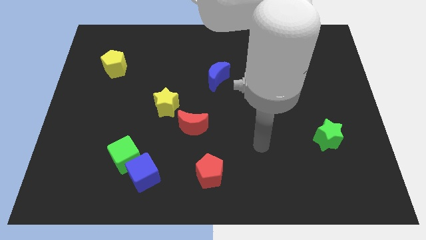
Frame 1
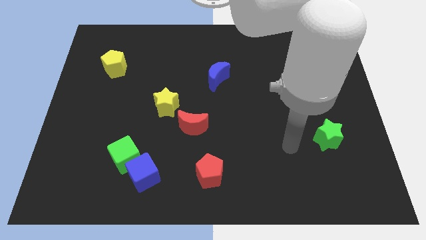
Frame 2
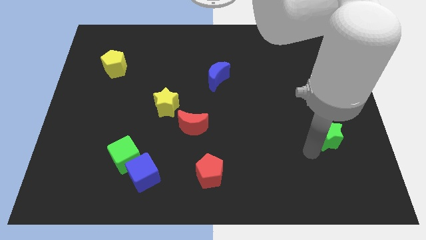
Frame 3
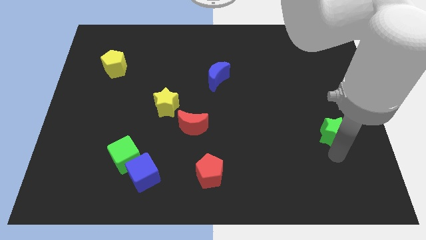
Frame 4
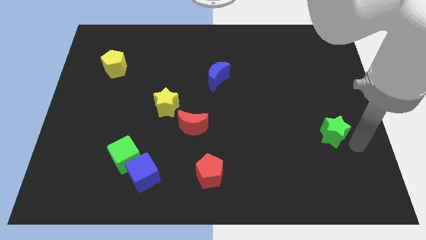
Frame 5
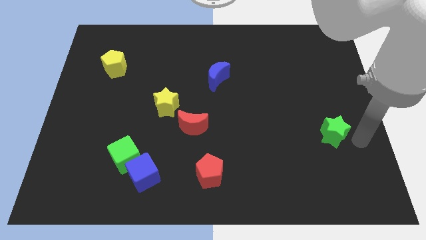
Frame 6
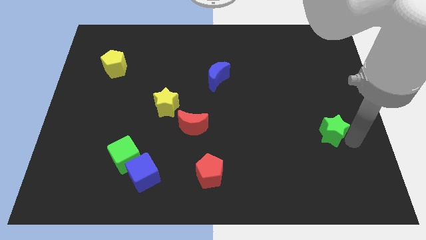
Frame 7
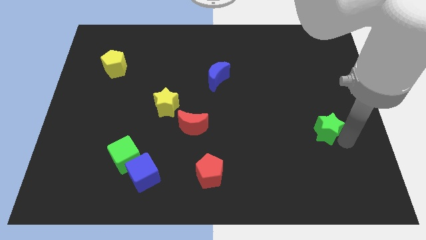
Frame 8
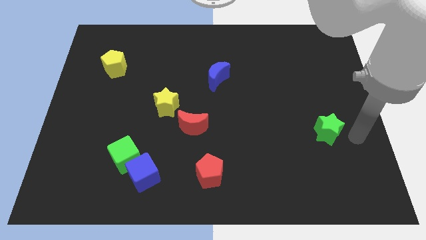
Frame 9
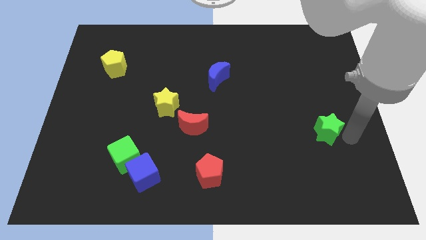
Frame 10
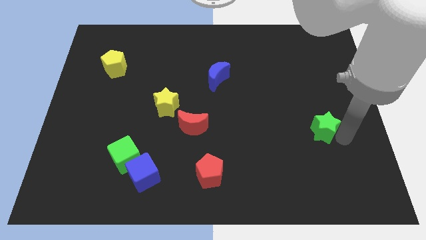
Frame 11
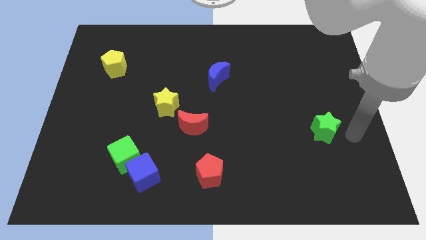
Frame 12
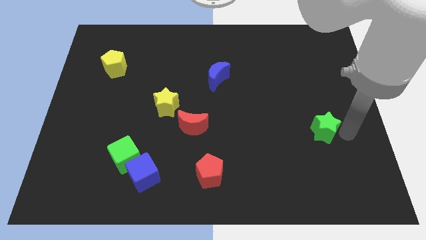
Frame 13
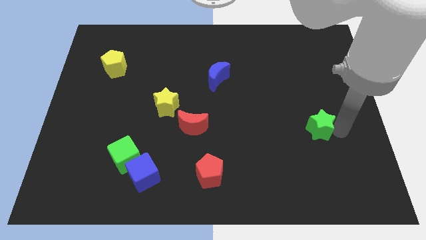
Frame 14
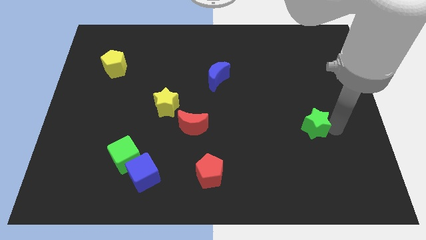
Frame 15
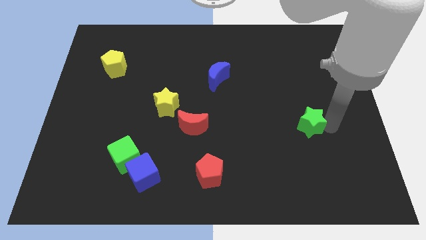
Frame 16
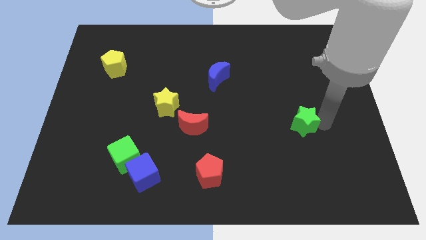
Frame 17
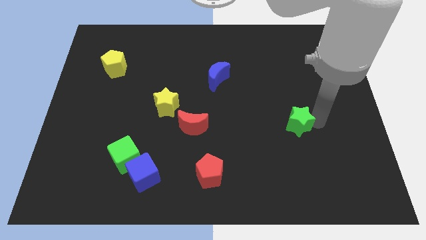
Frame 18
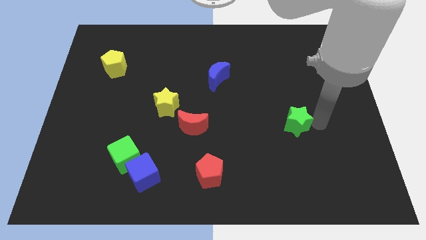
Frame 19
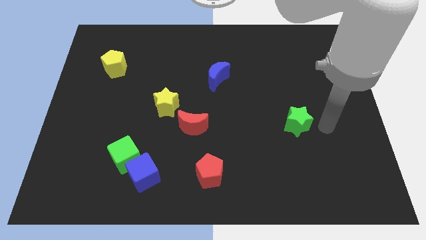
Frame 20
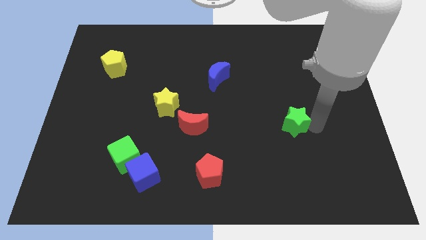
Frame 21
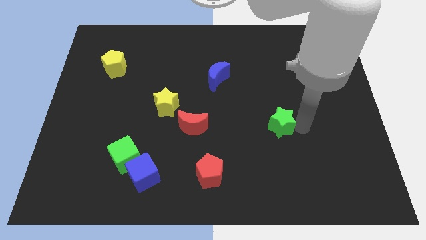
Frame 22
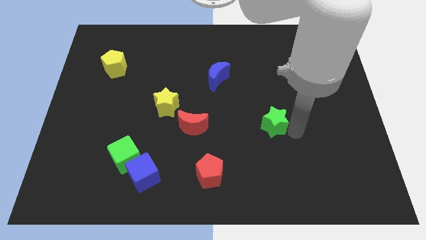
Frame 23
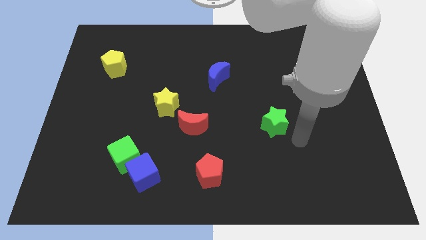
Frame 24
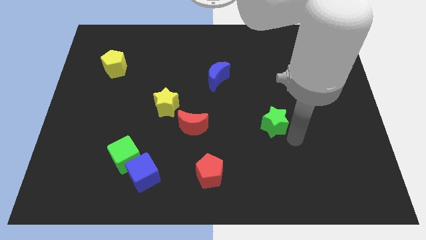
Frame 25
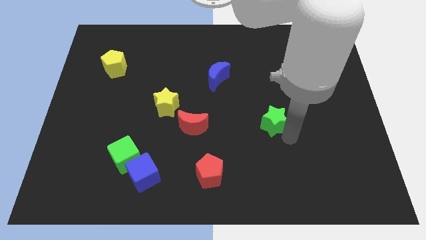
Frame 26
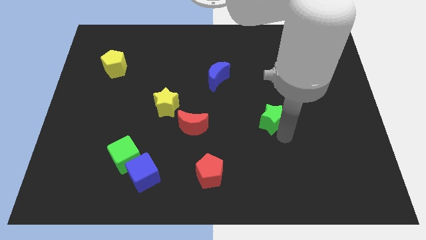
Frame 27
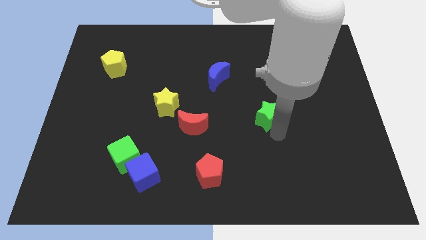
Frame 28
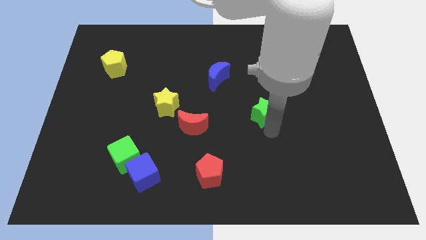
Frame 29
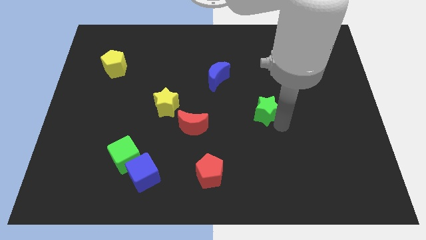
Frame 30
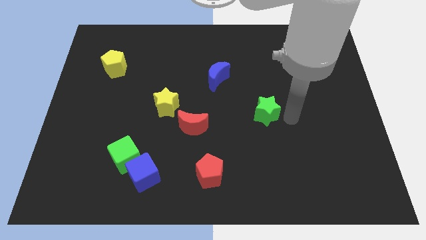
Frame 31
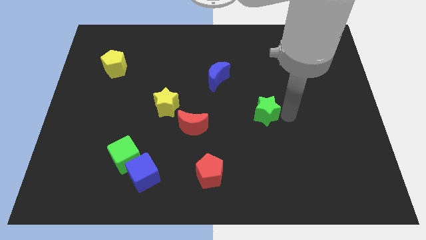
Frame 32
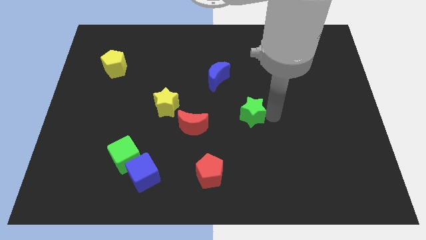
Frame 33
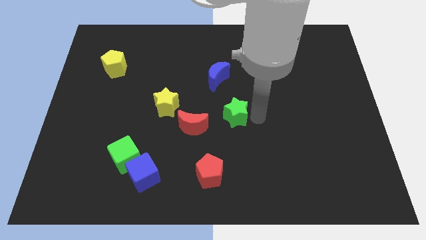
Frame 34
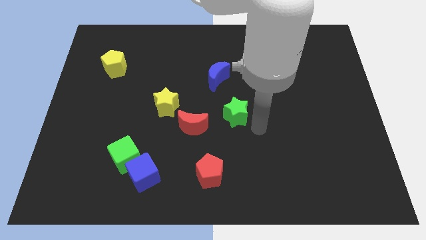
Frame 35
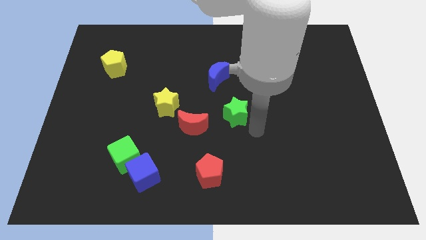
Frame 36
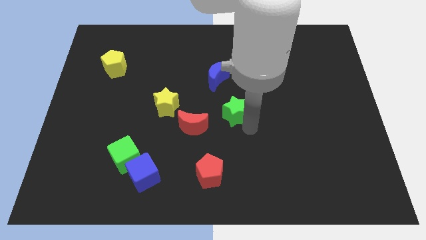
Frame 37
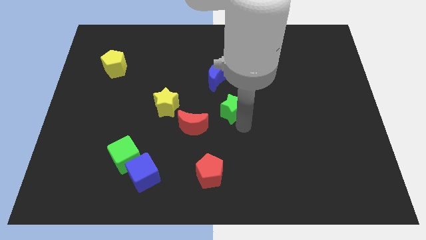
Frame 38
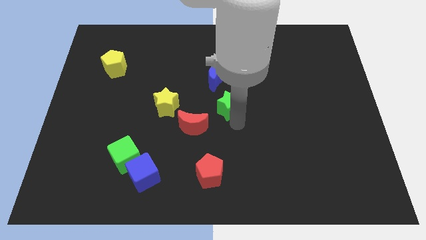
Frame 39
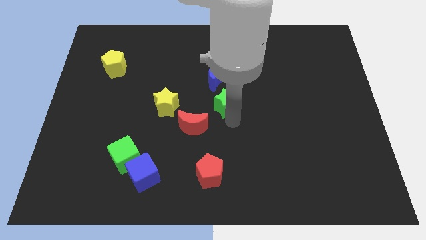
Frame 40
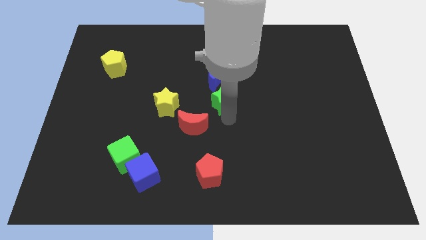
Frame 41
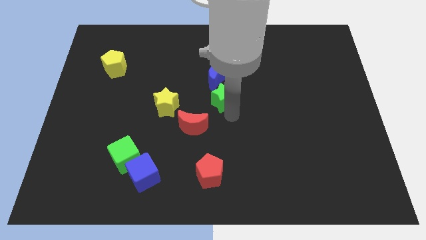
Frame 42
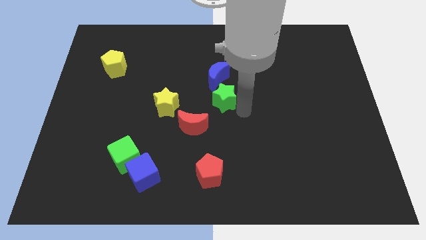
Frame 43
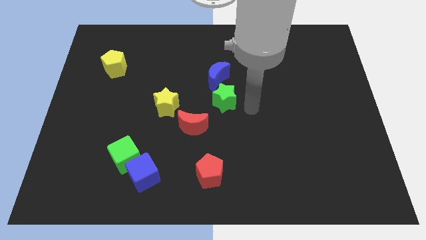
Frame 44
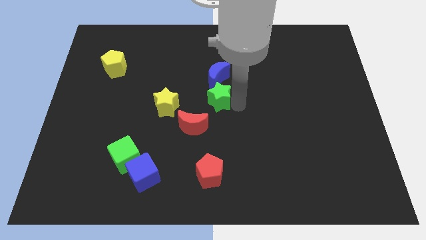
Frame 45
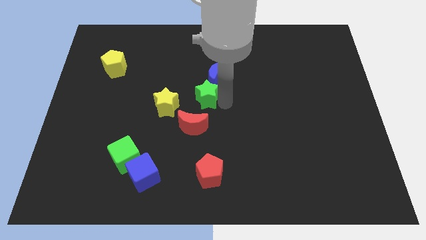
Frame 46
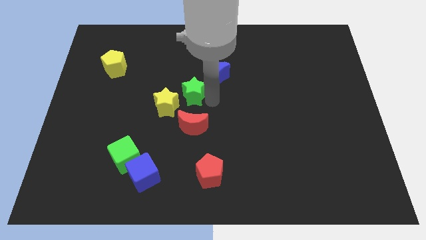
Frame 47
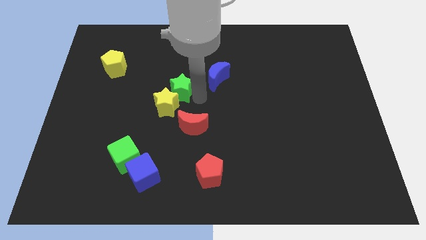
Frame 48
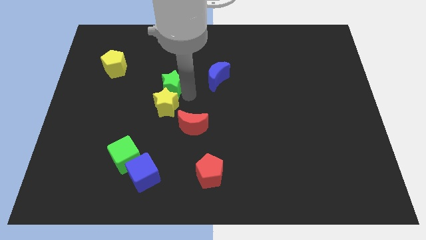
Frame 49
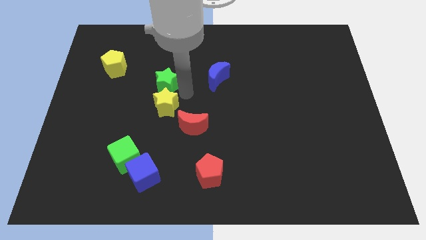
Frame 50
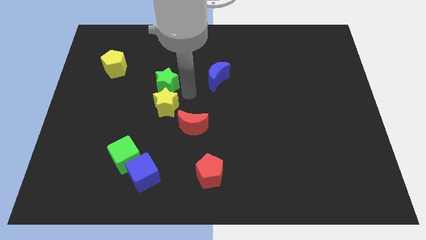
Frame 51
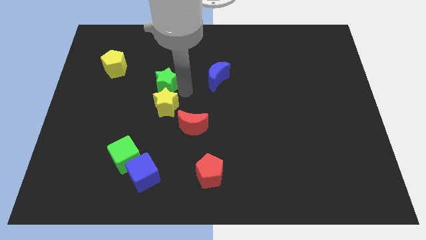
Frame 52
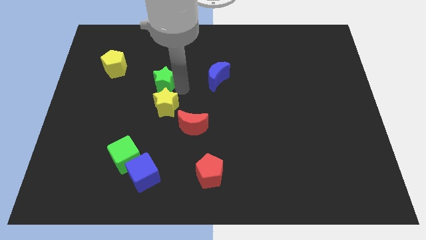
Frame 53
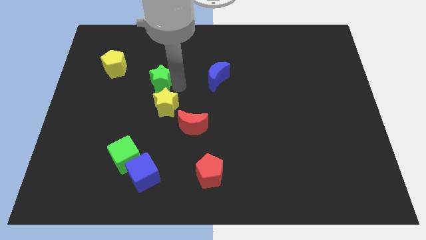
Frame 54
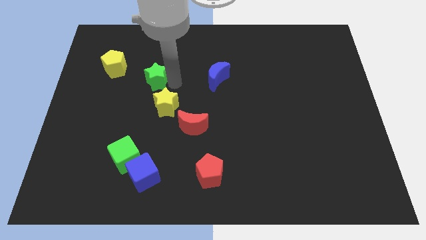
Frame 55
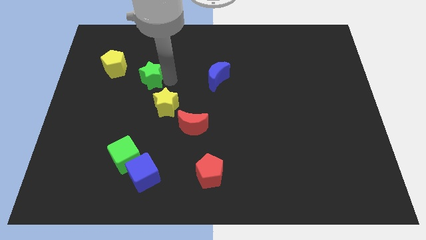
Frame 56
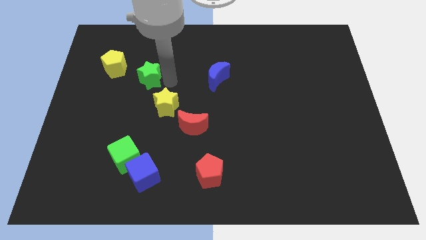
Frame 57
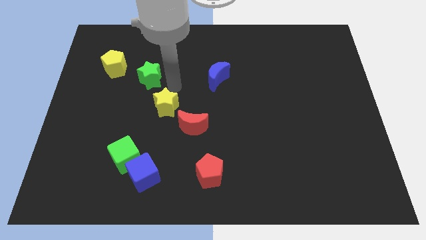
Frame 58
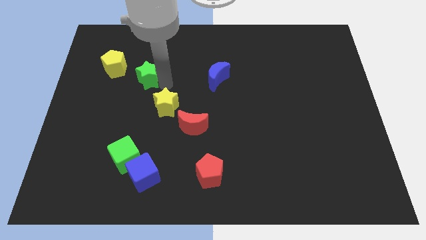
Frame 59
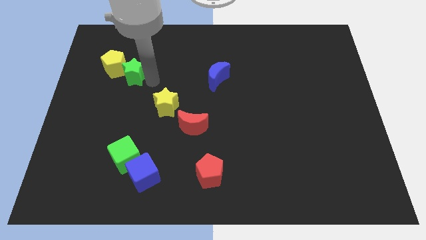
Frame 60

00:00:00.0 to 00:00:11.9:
put the green star towards the yellow pentagon

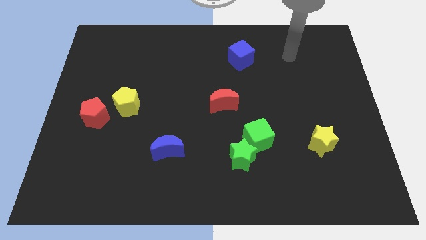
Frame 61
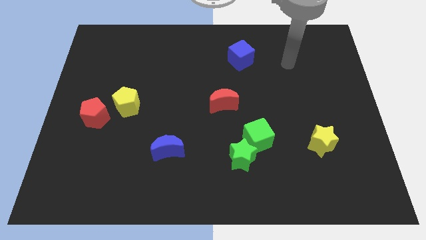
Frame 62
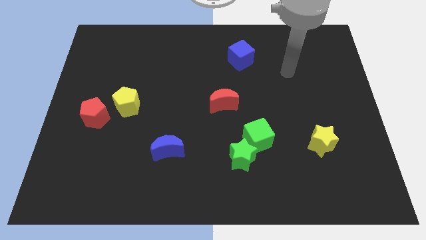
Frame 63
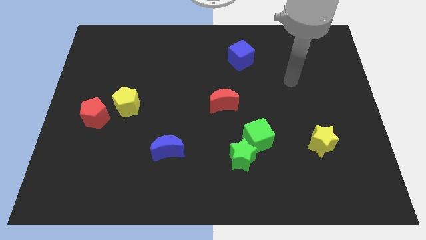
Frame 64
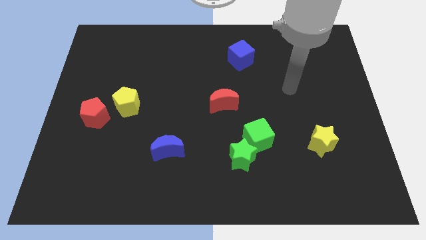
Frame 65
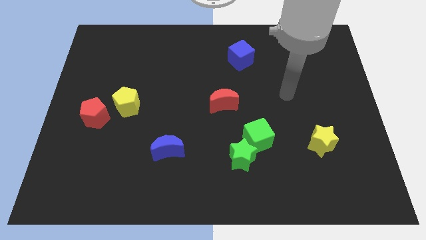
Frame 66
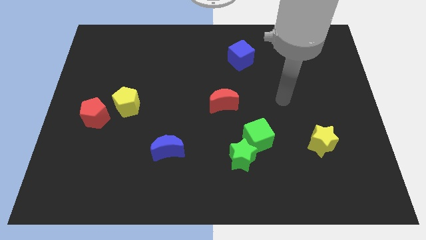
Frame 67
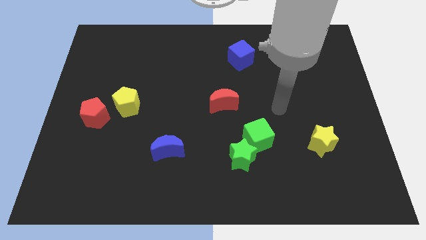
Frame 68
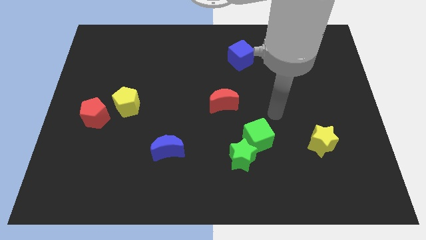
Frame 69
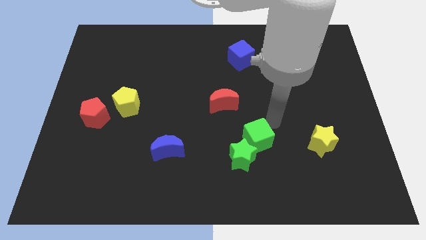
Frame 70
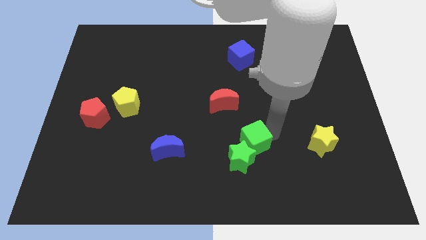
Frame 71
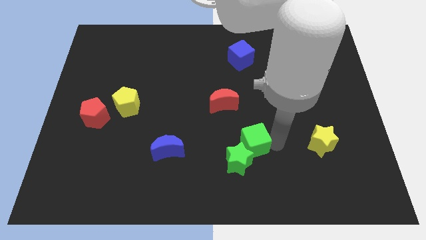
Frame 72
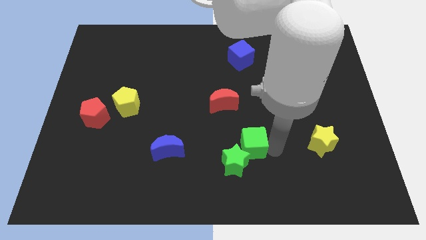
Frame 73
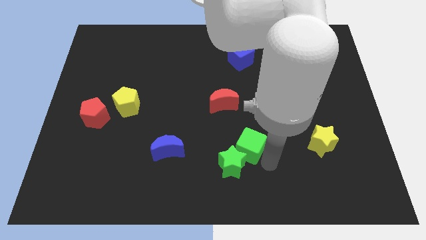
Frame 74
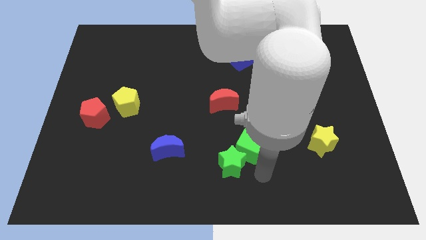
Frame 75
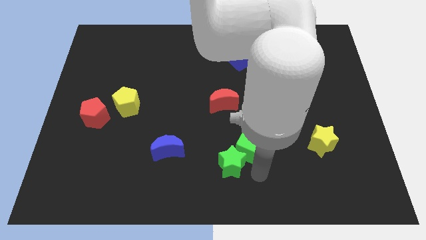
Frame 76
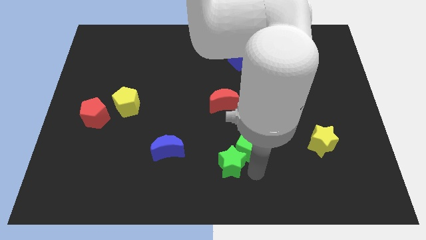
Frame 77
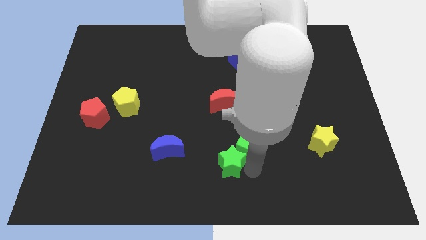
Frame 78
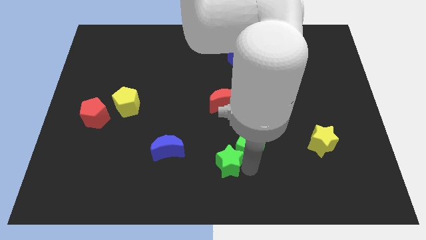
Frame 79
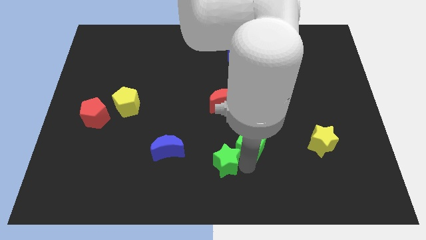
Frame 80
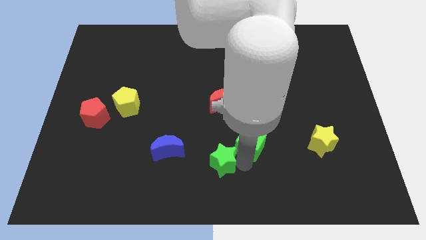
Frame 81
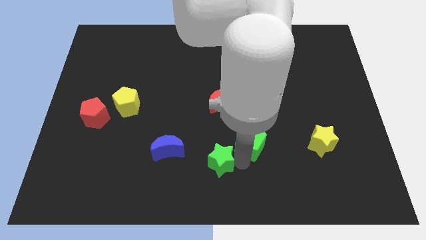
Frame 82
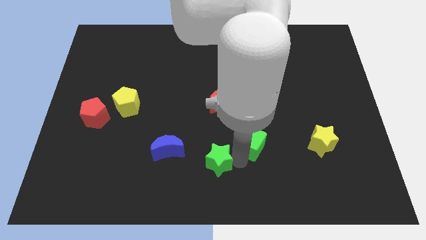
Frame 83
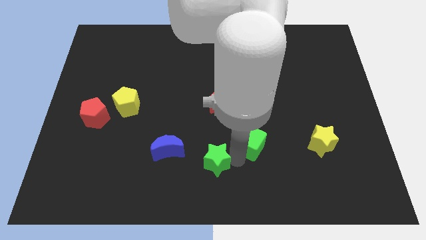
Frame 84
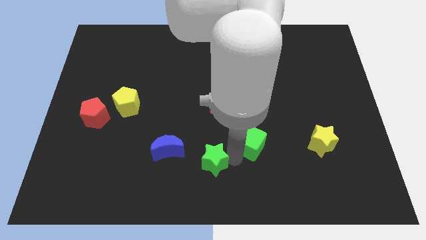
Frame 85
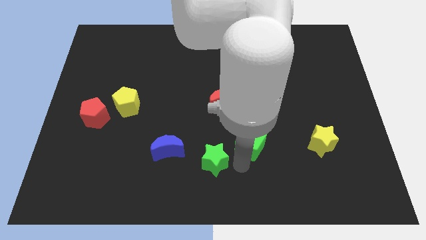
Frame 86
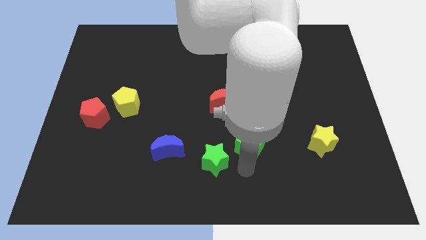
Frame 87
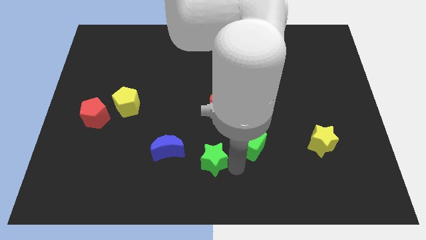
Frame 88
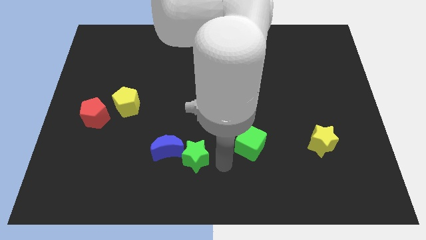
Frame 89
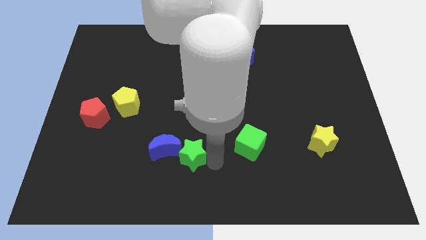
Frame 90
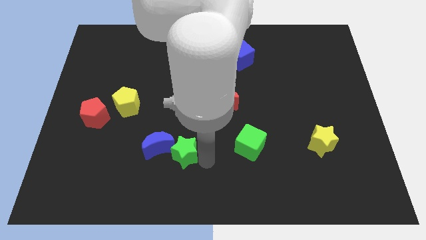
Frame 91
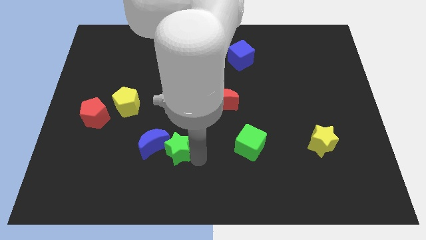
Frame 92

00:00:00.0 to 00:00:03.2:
slide the green star close to the blue moon
